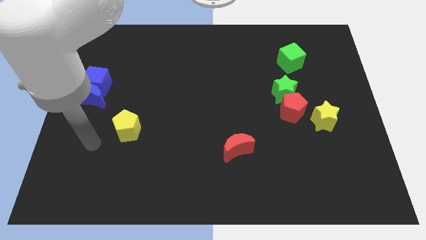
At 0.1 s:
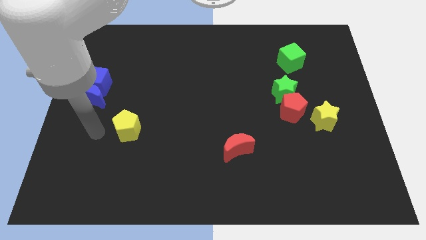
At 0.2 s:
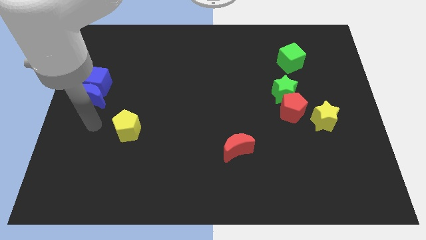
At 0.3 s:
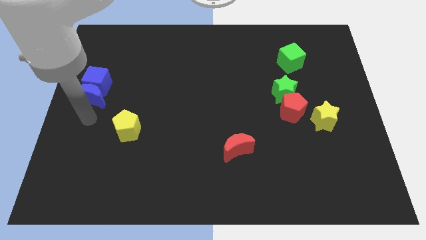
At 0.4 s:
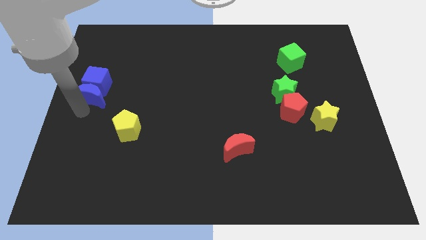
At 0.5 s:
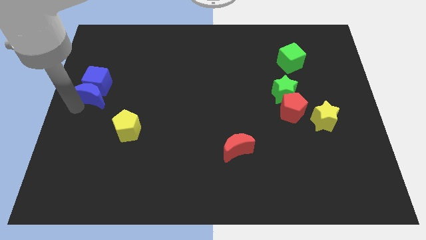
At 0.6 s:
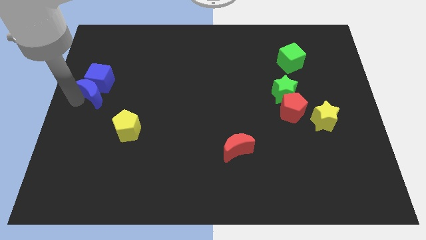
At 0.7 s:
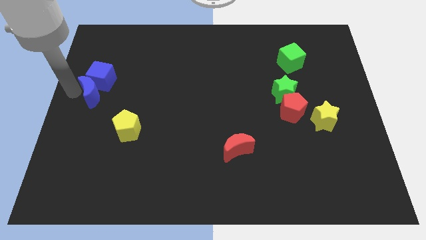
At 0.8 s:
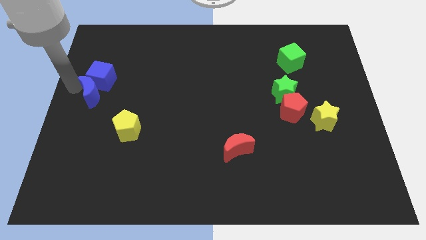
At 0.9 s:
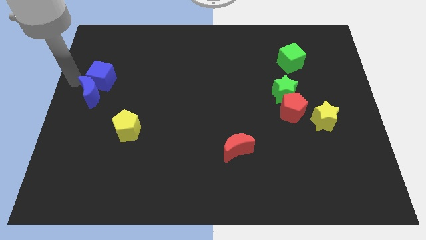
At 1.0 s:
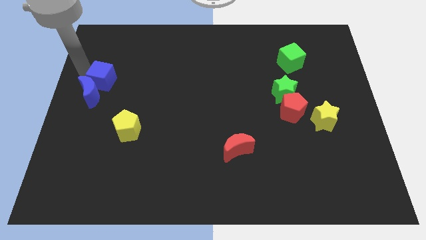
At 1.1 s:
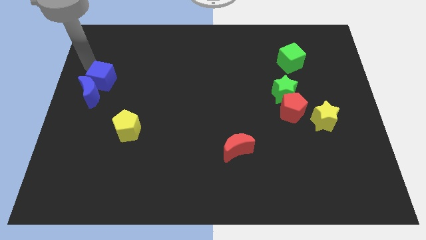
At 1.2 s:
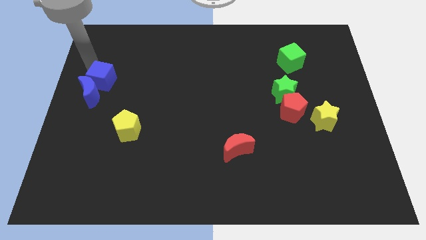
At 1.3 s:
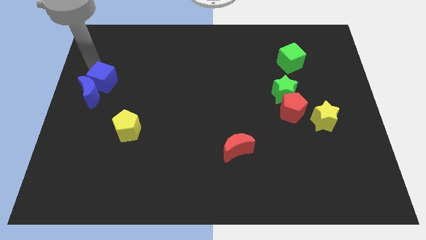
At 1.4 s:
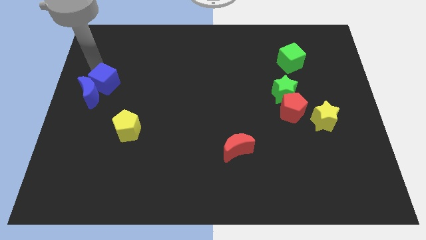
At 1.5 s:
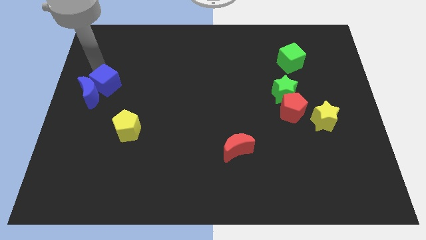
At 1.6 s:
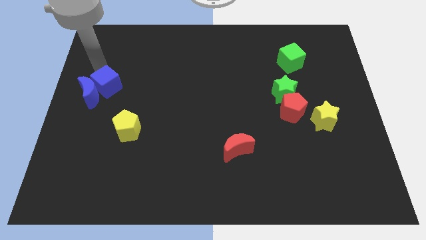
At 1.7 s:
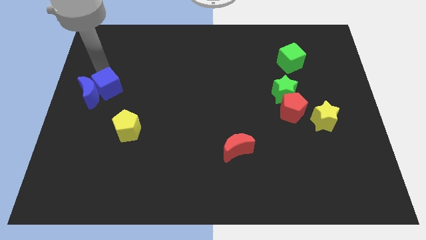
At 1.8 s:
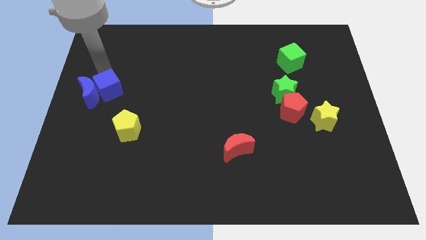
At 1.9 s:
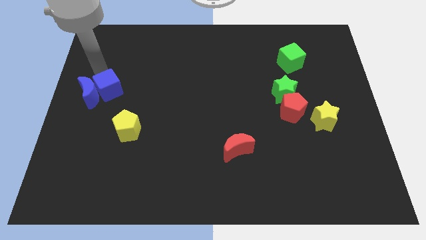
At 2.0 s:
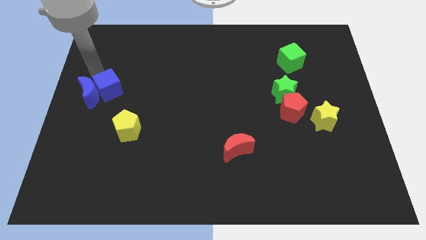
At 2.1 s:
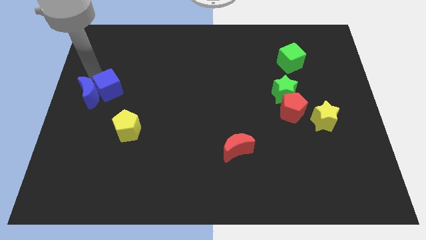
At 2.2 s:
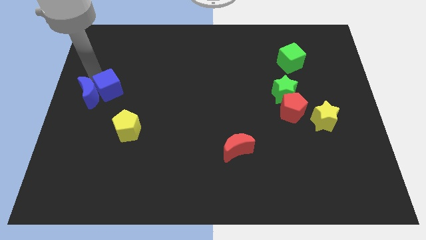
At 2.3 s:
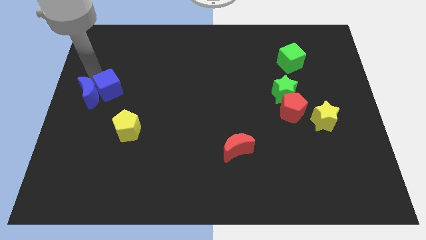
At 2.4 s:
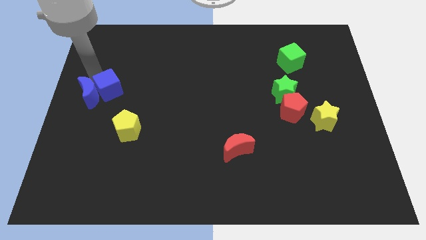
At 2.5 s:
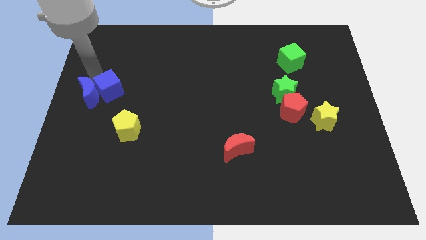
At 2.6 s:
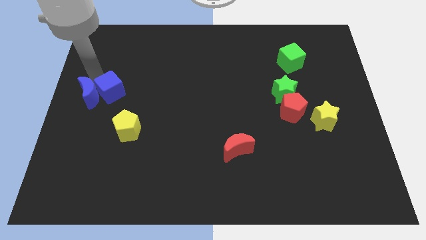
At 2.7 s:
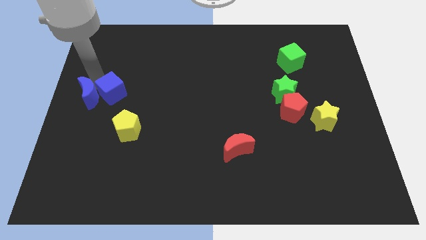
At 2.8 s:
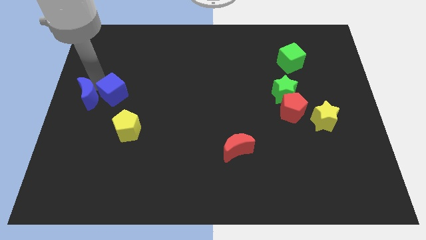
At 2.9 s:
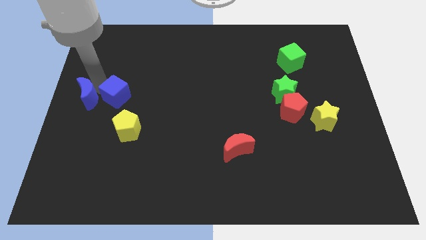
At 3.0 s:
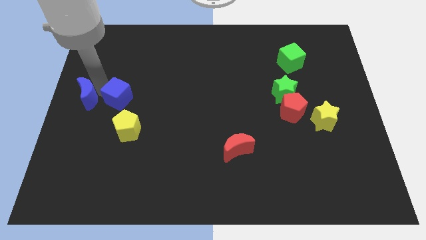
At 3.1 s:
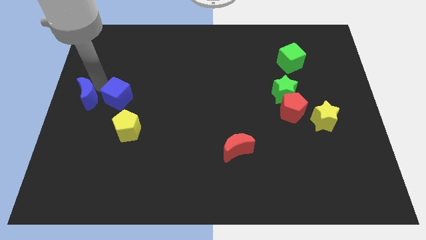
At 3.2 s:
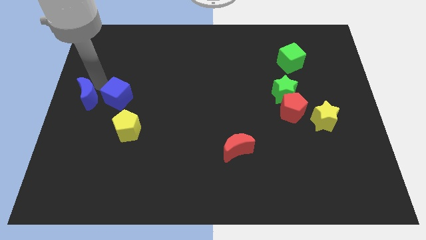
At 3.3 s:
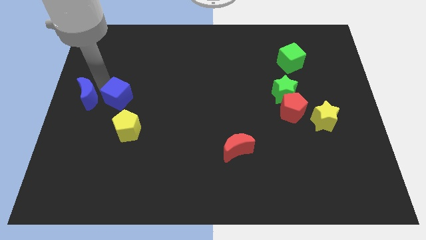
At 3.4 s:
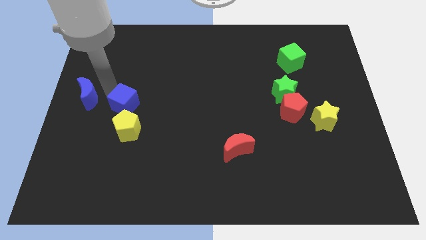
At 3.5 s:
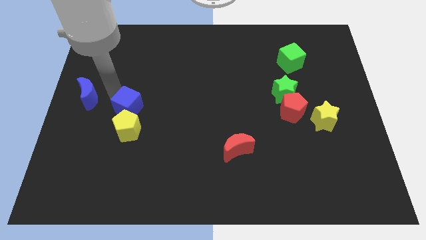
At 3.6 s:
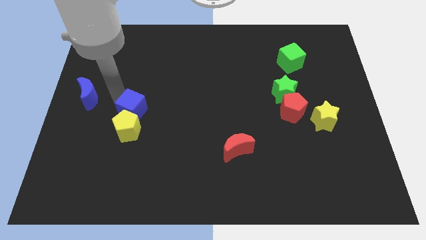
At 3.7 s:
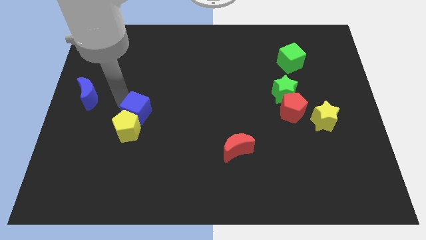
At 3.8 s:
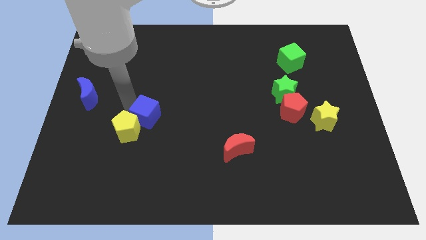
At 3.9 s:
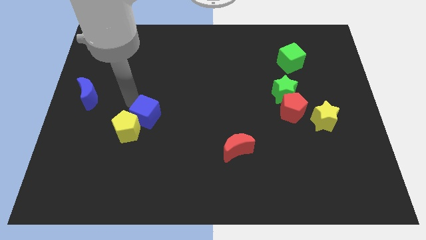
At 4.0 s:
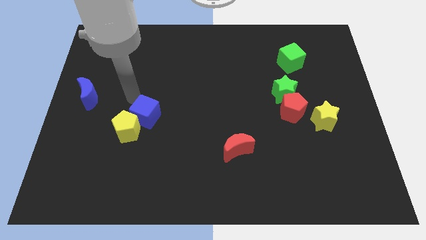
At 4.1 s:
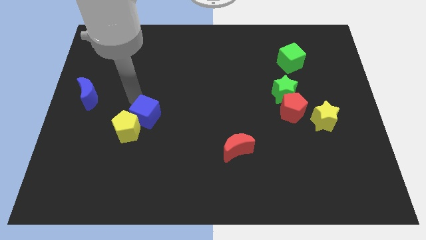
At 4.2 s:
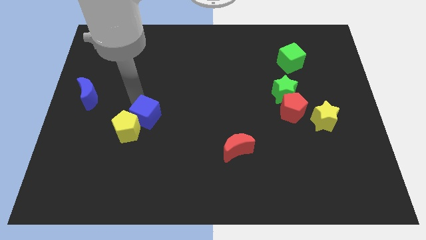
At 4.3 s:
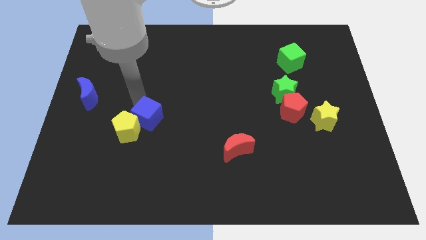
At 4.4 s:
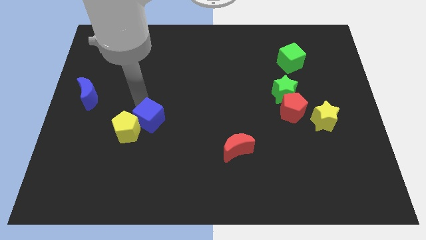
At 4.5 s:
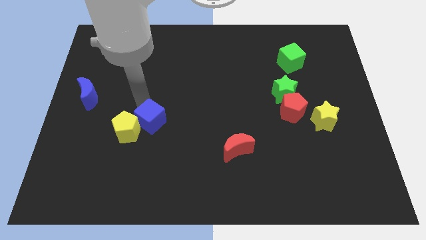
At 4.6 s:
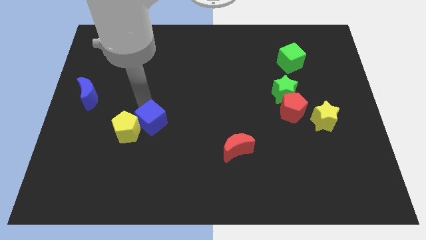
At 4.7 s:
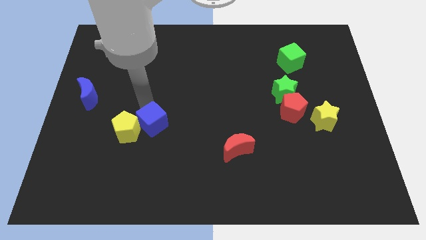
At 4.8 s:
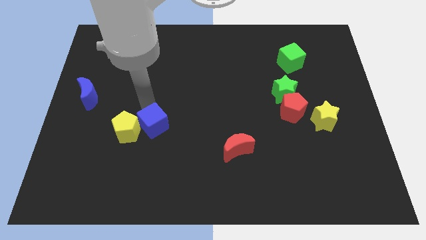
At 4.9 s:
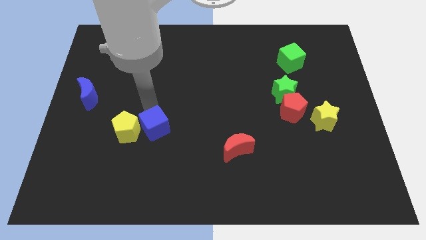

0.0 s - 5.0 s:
slide the blue cube downwards and then to the right

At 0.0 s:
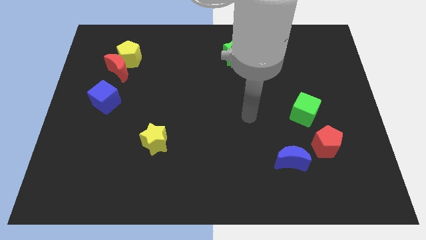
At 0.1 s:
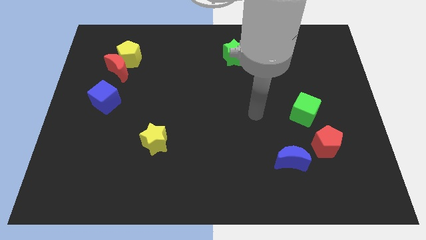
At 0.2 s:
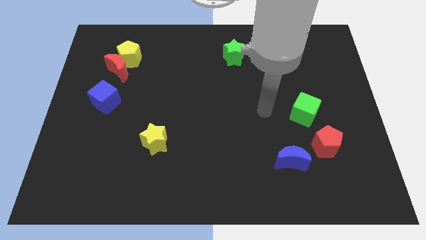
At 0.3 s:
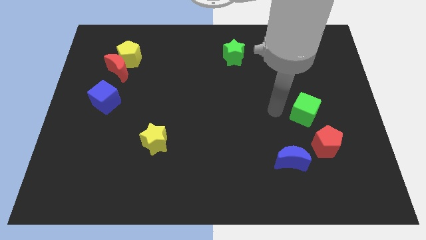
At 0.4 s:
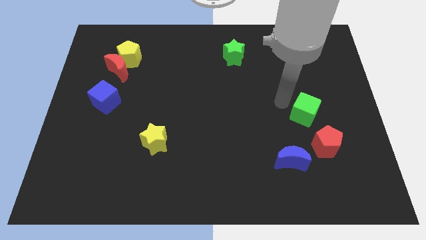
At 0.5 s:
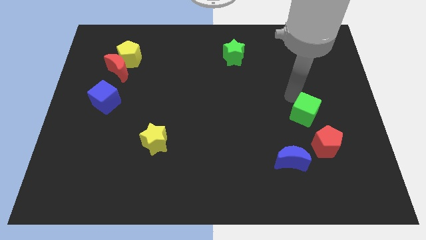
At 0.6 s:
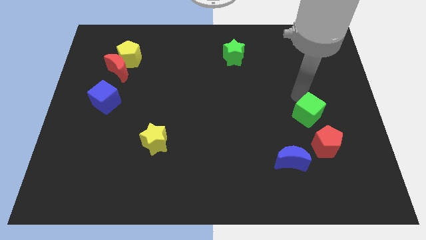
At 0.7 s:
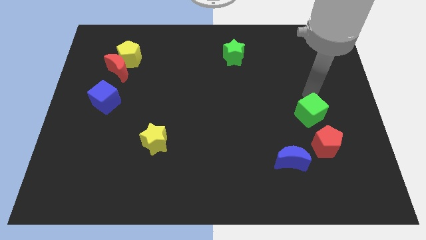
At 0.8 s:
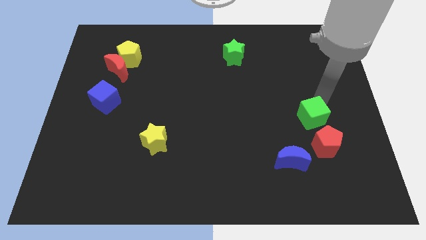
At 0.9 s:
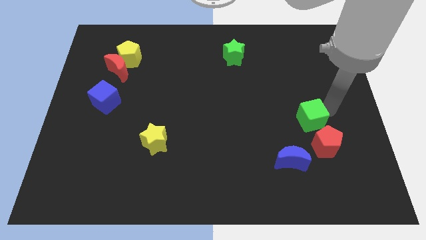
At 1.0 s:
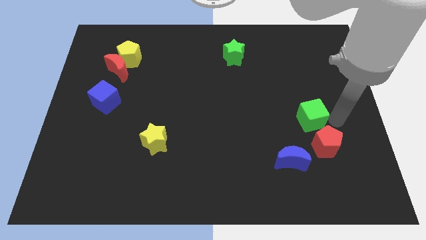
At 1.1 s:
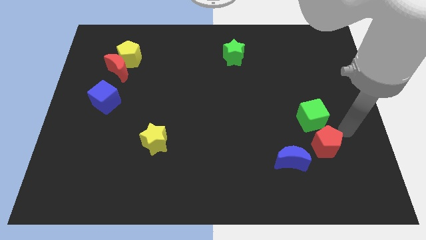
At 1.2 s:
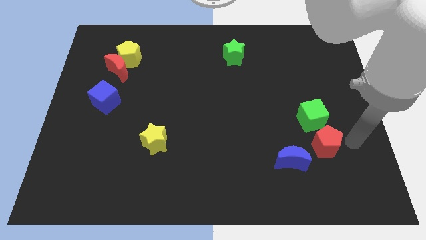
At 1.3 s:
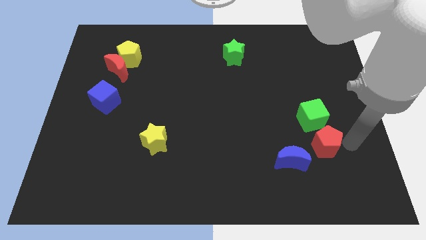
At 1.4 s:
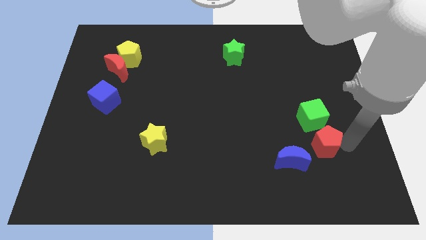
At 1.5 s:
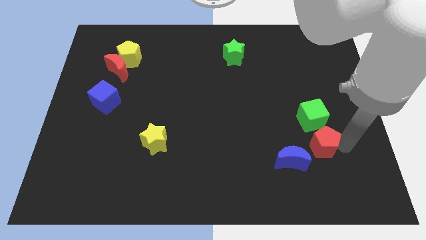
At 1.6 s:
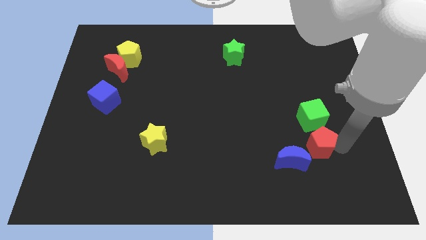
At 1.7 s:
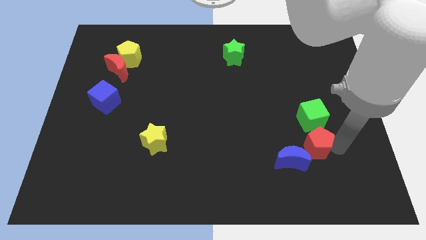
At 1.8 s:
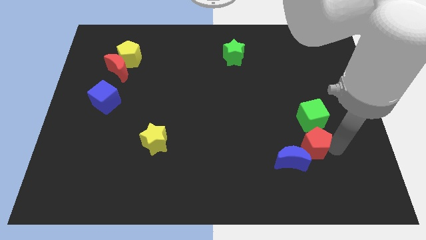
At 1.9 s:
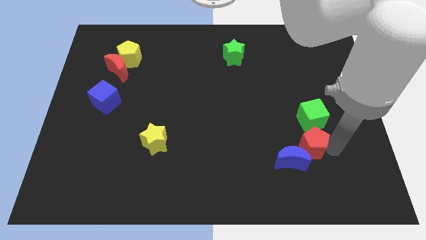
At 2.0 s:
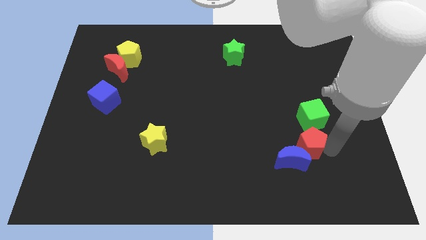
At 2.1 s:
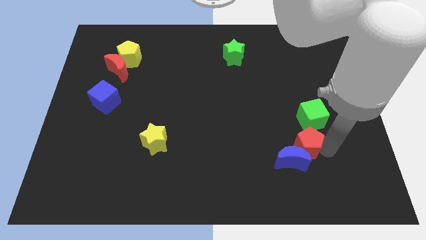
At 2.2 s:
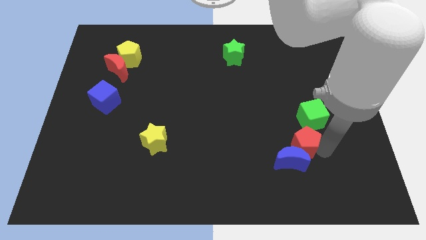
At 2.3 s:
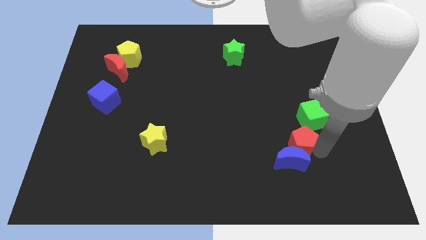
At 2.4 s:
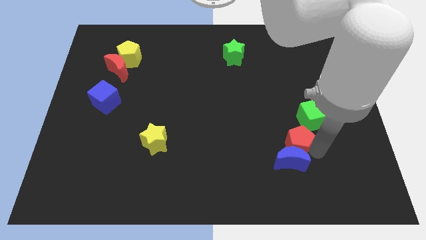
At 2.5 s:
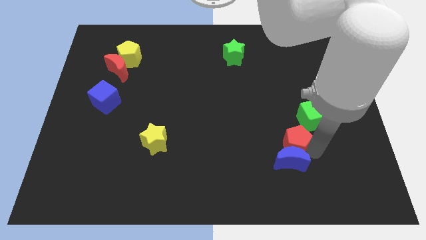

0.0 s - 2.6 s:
slightly push the red pentagon left

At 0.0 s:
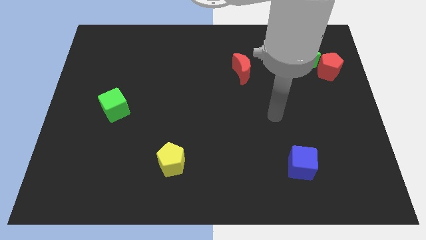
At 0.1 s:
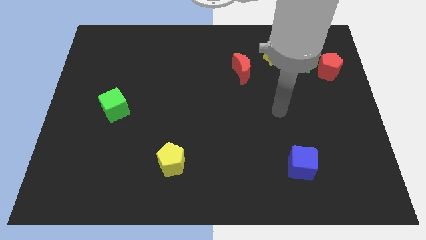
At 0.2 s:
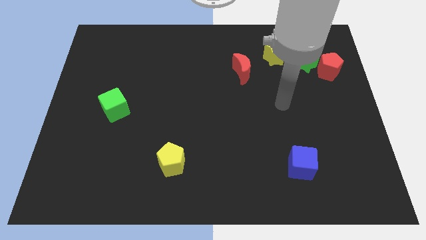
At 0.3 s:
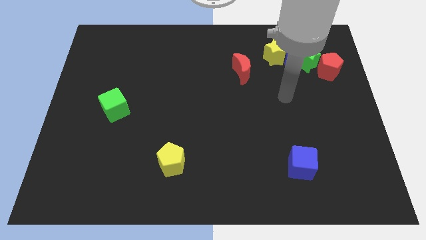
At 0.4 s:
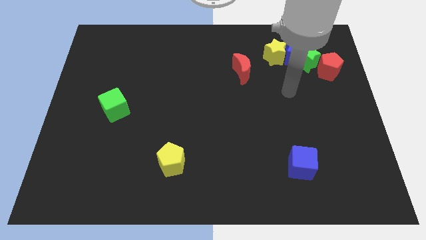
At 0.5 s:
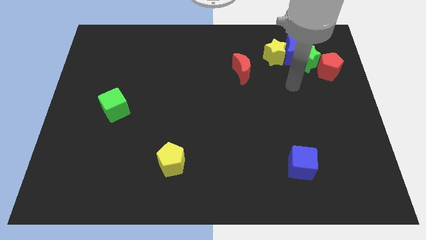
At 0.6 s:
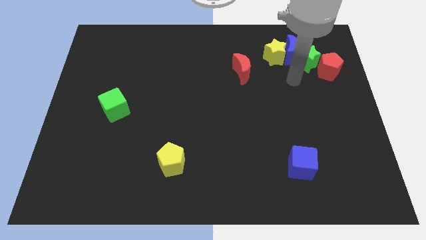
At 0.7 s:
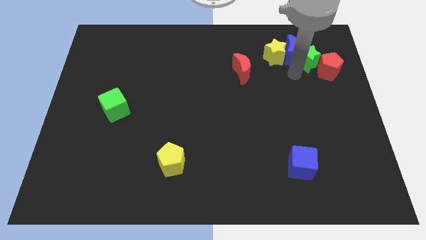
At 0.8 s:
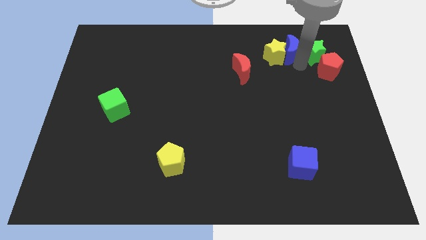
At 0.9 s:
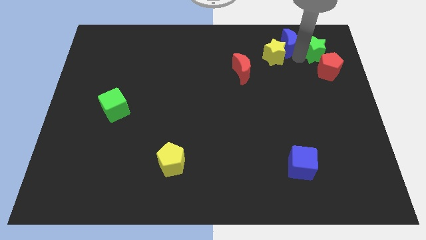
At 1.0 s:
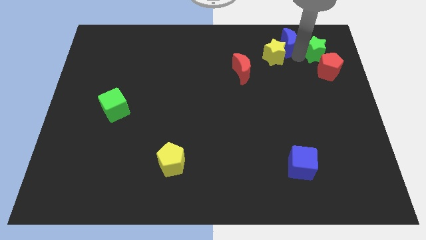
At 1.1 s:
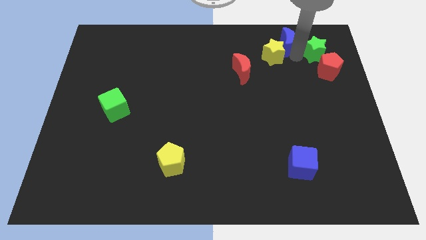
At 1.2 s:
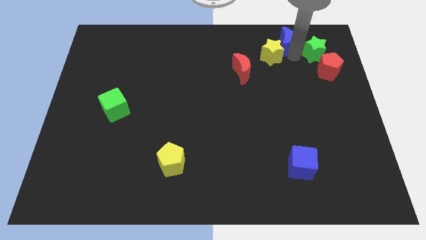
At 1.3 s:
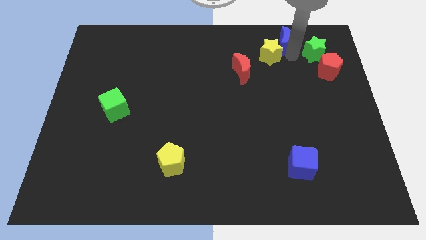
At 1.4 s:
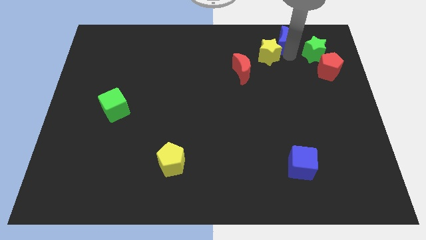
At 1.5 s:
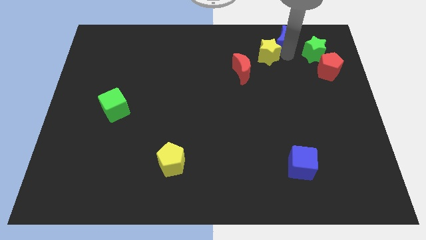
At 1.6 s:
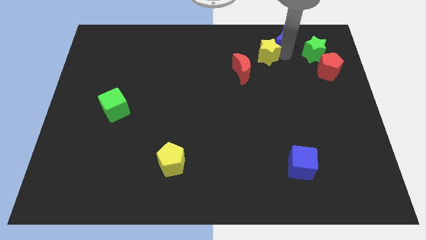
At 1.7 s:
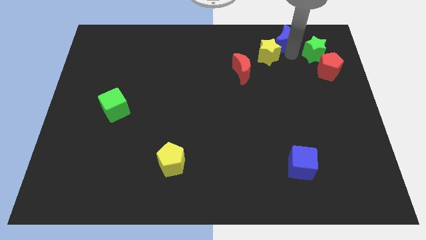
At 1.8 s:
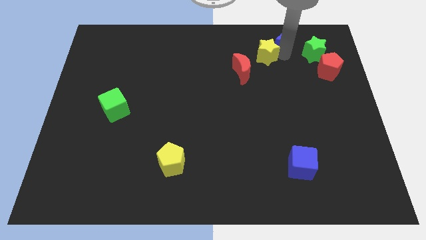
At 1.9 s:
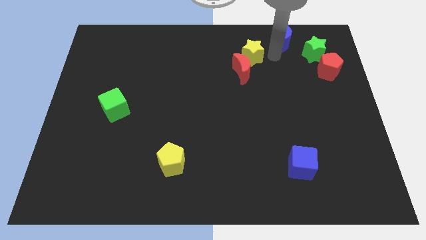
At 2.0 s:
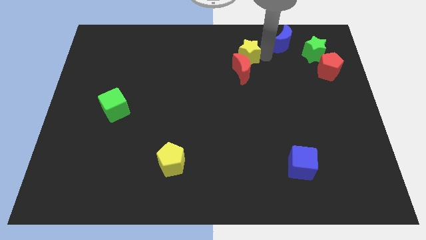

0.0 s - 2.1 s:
move the yellow star somewhat to the left
